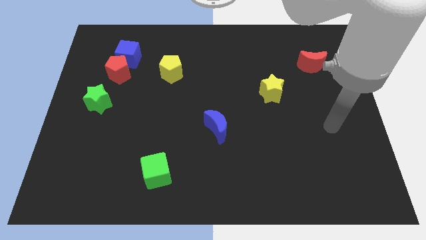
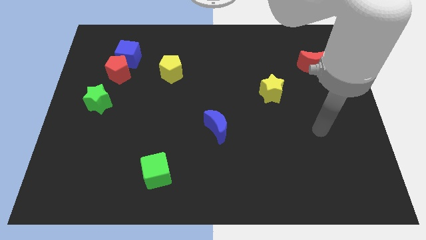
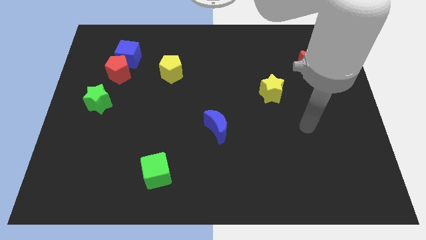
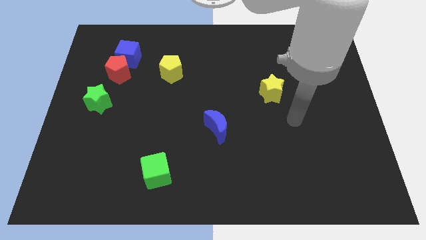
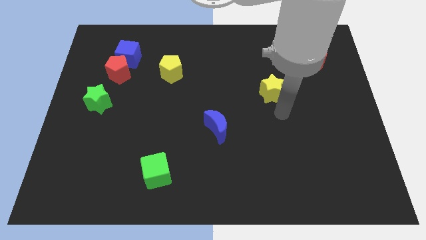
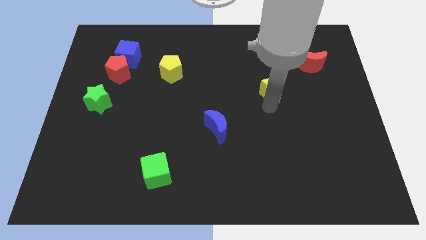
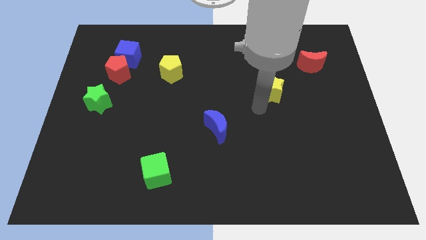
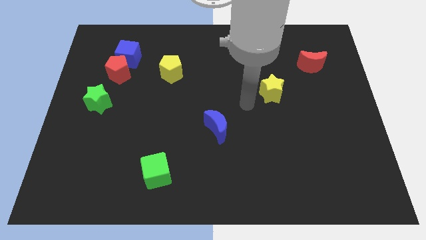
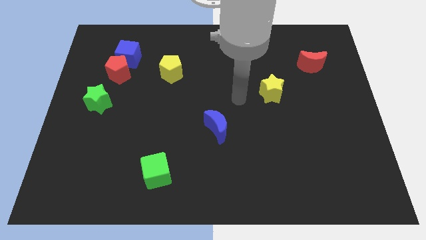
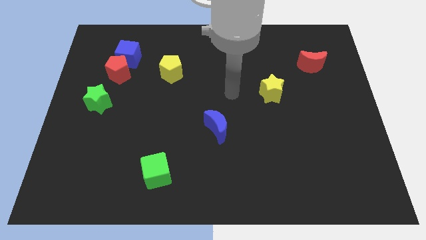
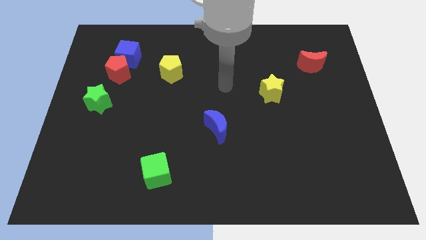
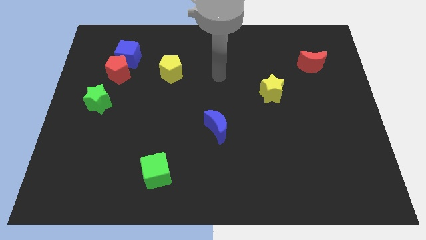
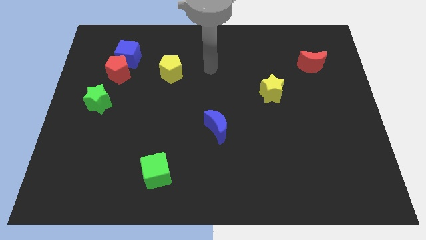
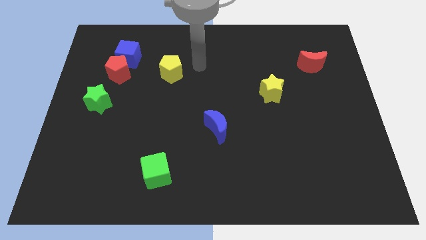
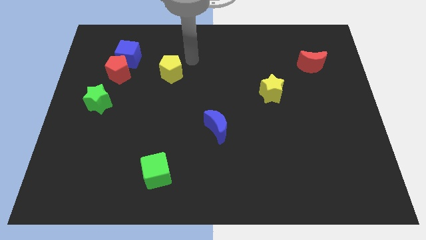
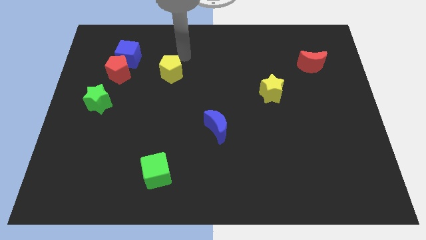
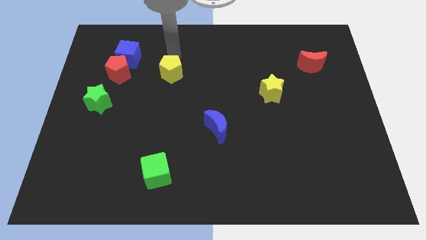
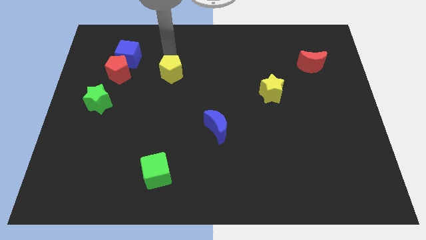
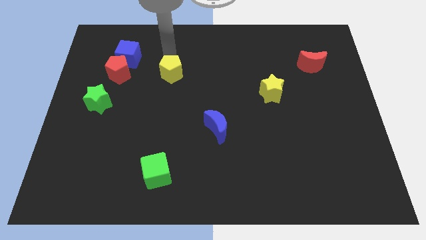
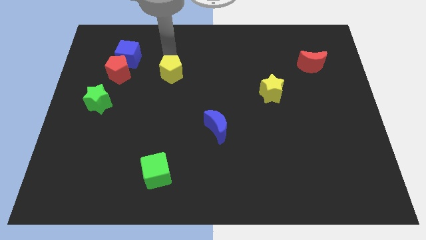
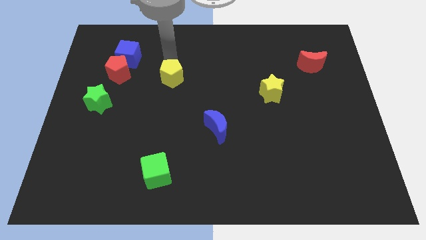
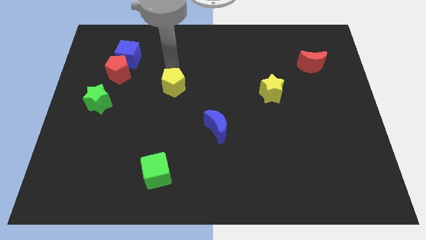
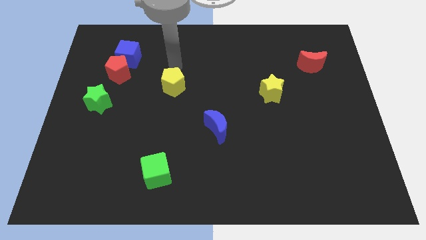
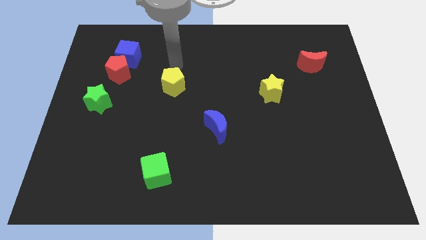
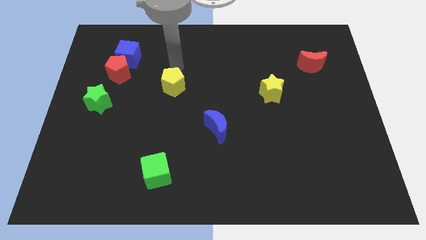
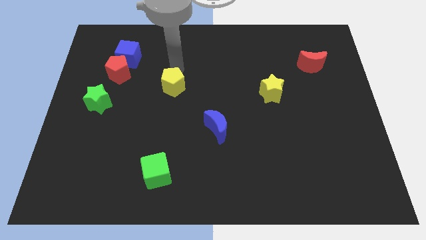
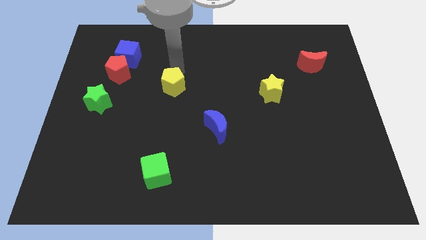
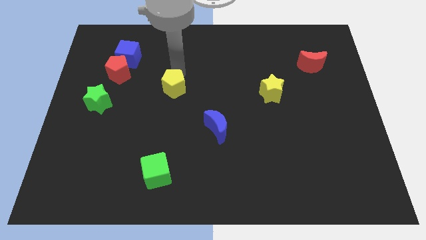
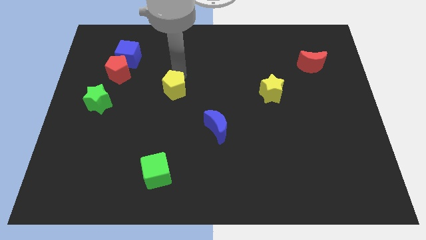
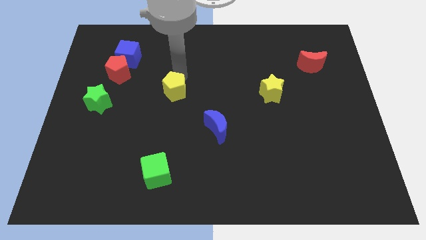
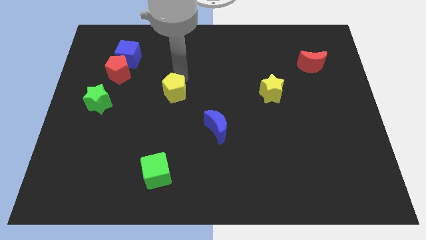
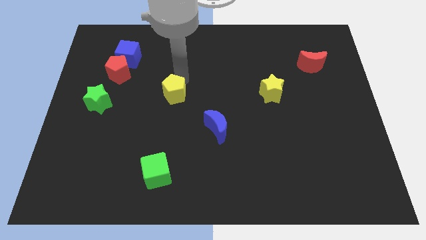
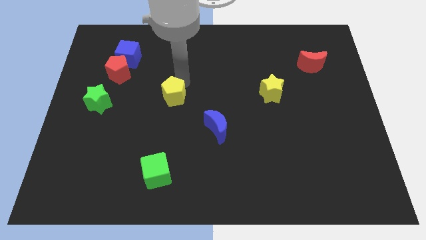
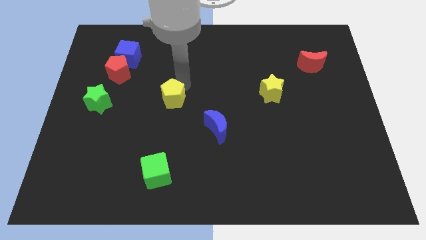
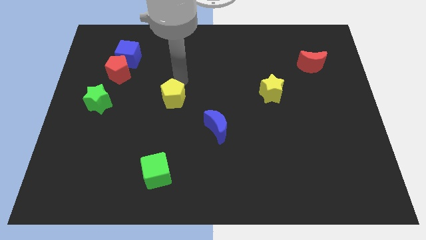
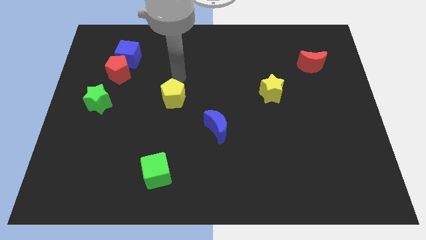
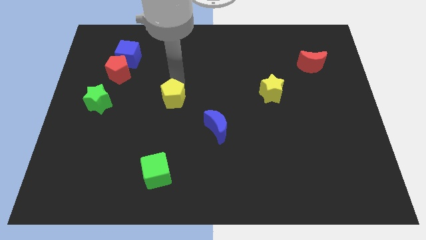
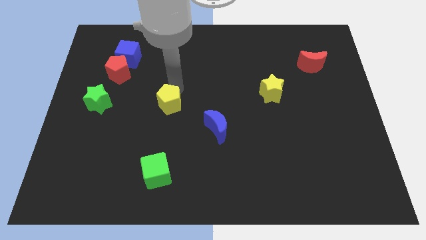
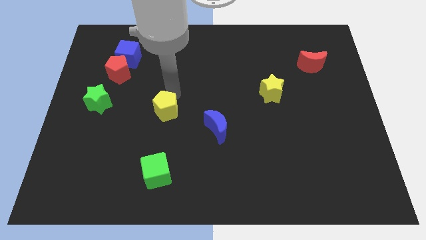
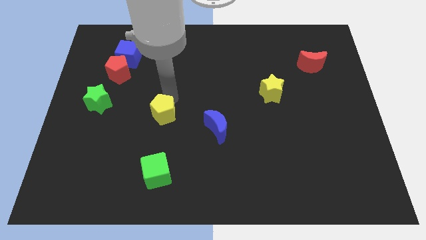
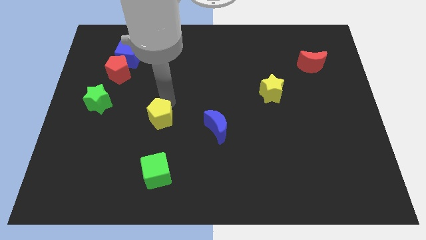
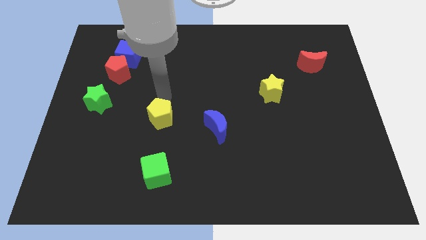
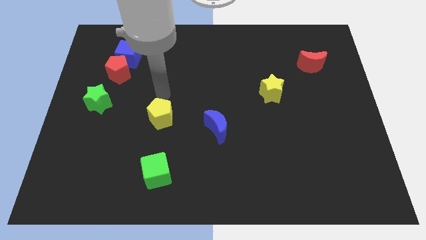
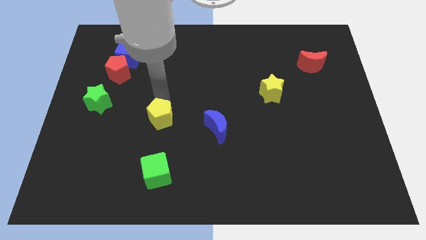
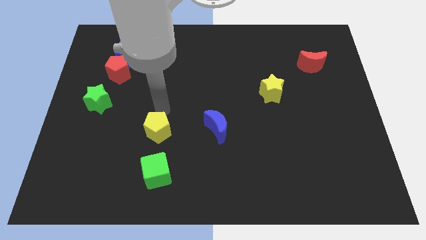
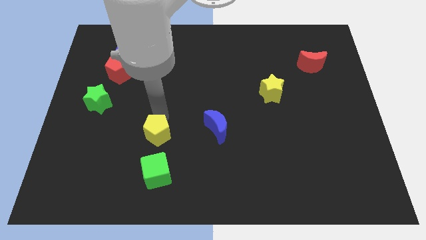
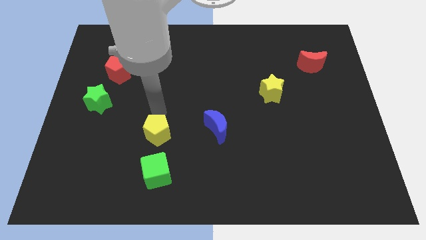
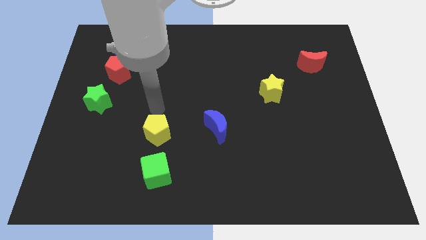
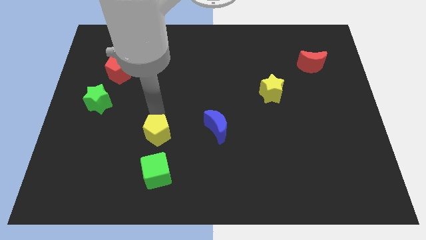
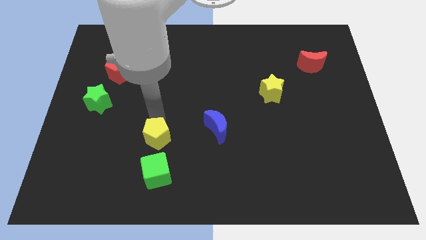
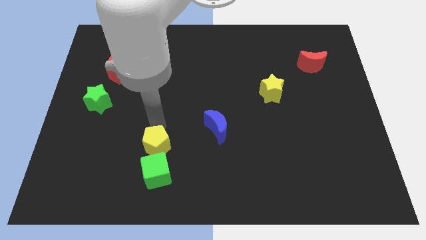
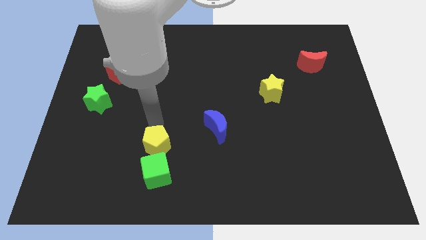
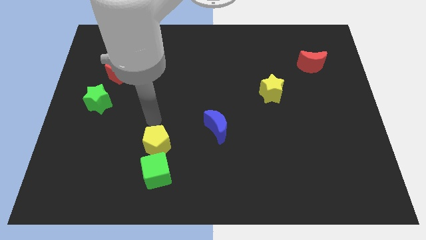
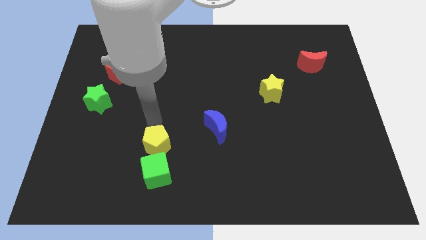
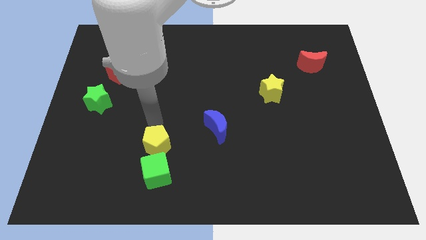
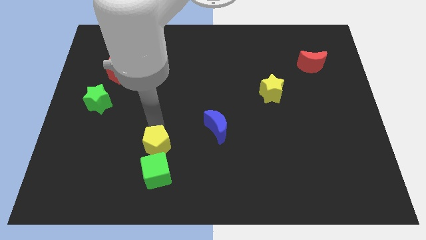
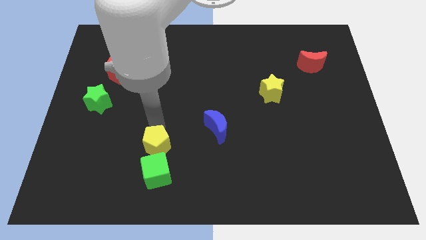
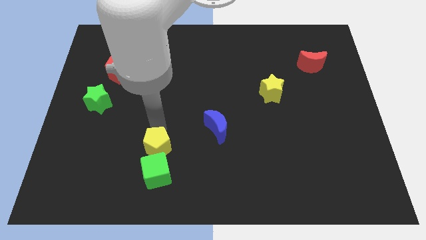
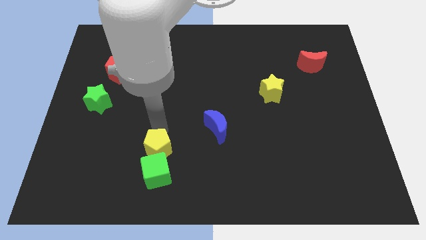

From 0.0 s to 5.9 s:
move the yellow pentagon close to the green cube

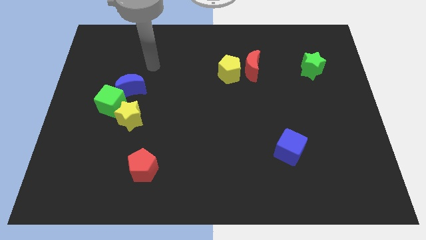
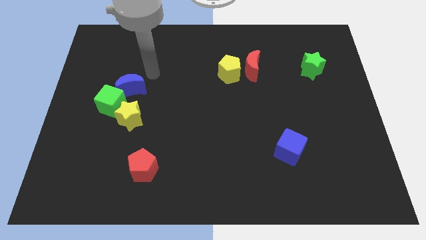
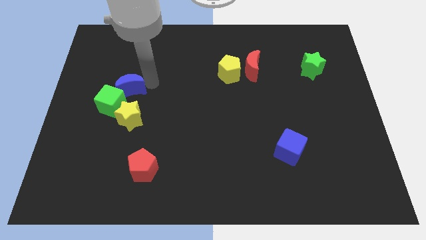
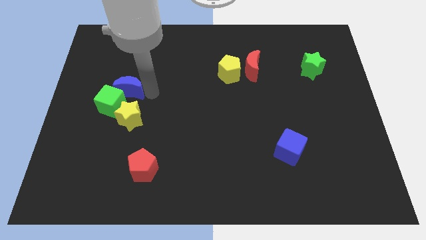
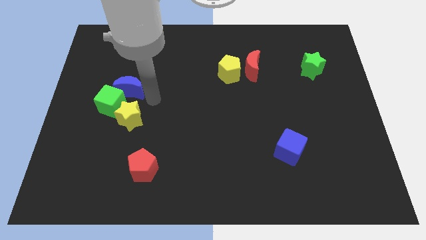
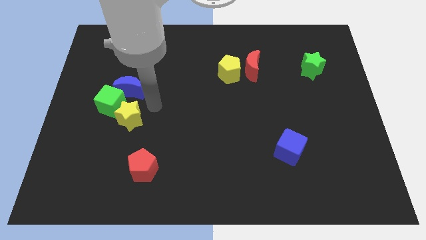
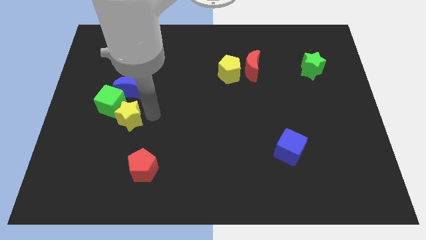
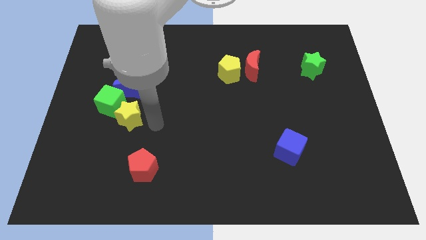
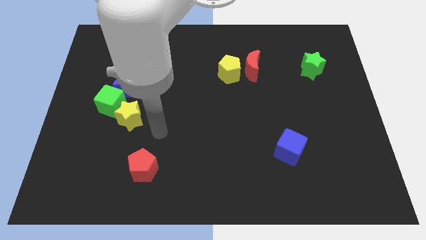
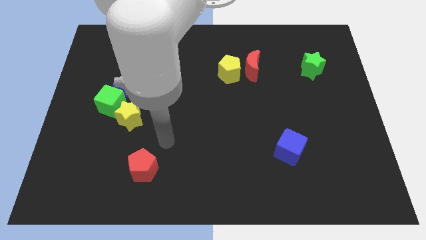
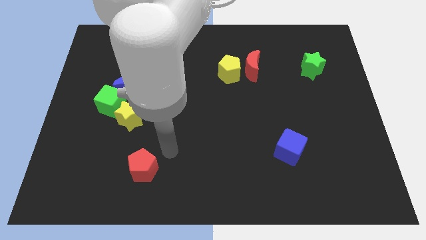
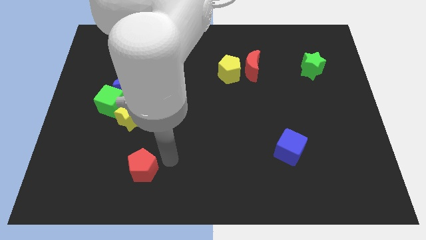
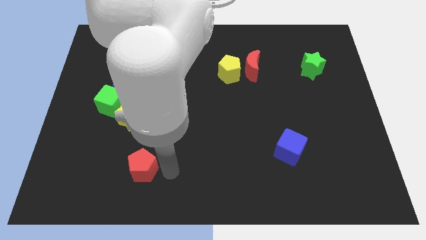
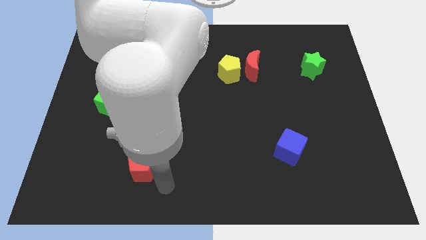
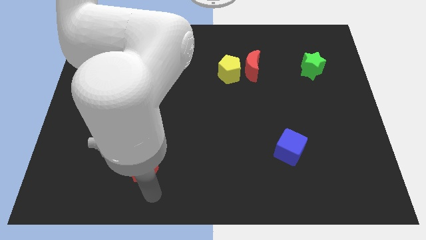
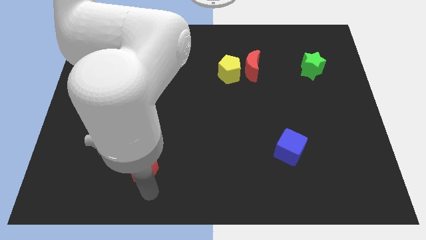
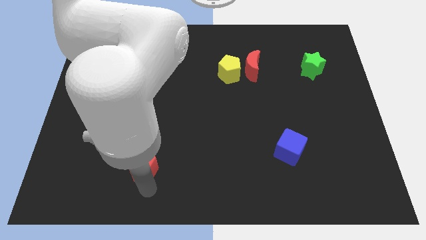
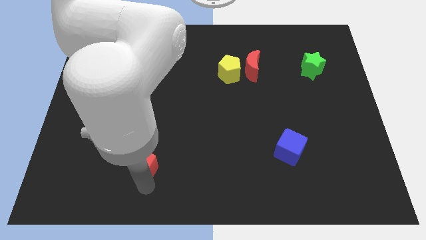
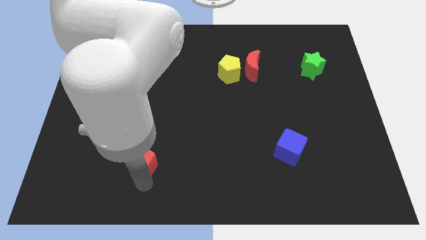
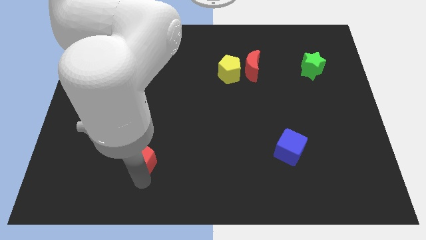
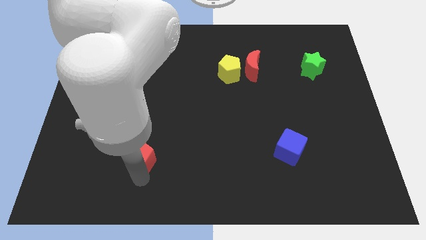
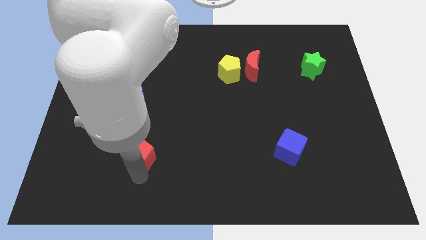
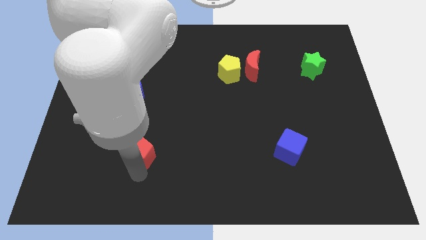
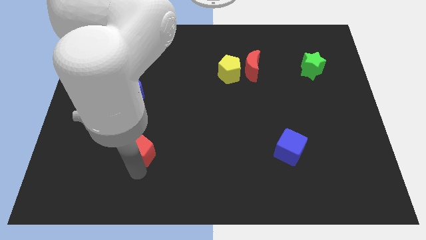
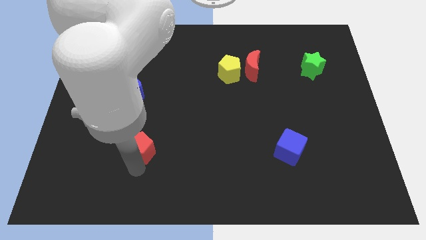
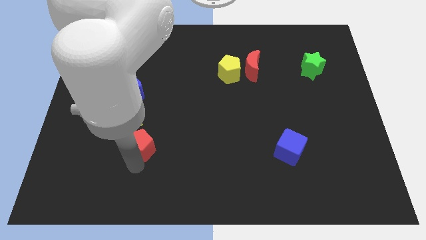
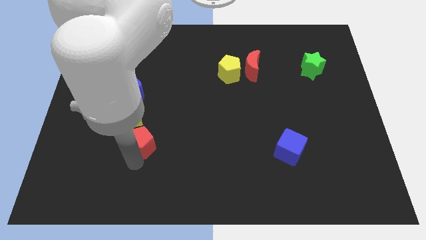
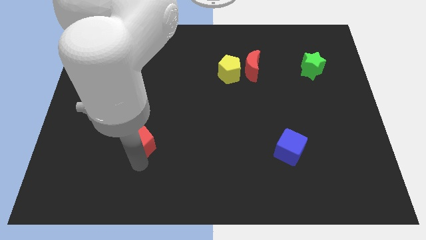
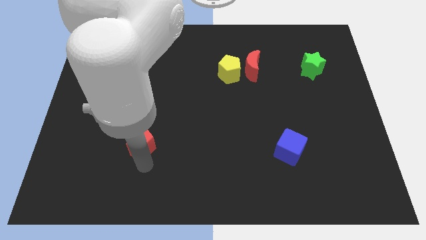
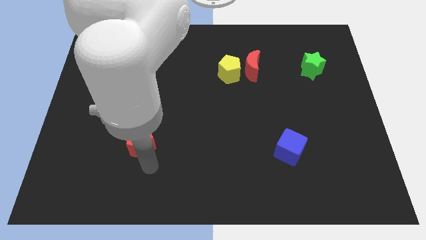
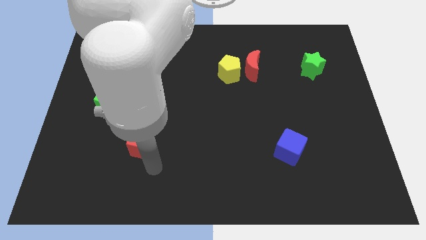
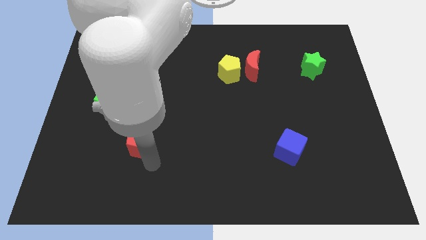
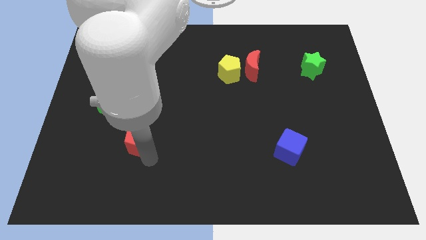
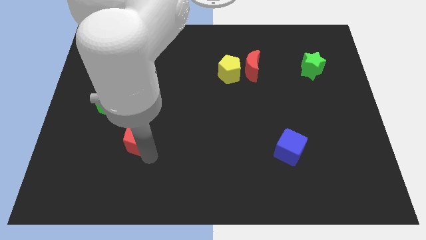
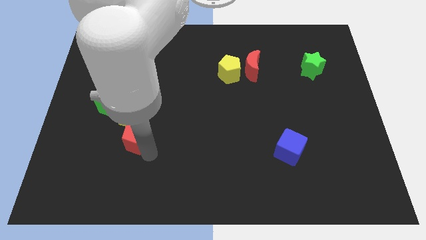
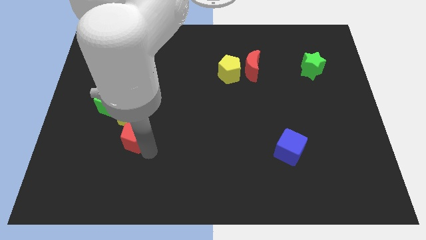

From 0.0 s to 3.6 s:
slide the red pentagon to the yellow star
